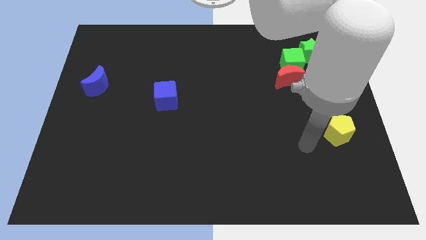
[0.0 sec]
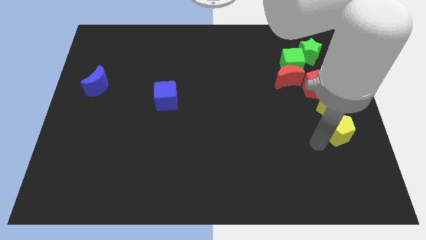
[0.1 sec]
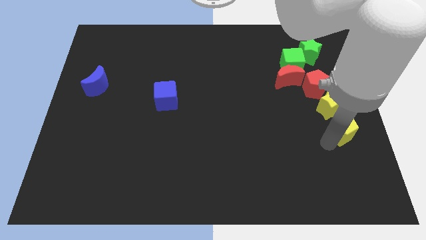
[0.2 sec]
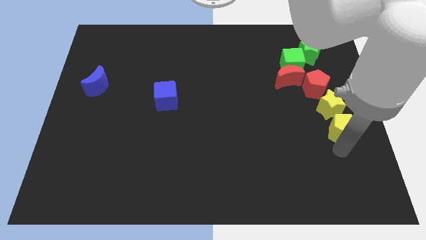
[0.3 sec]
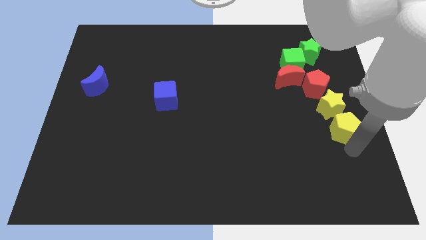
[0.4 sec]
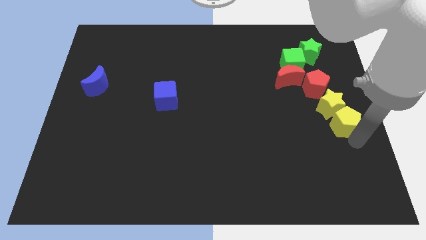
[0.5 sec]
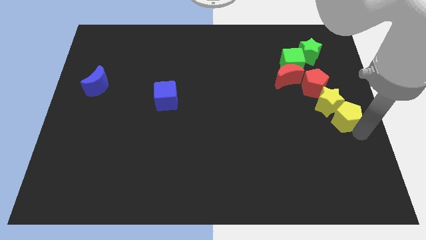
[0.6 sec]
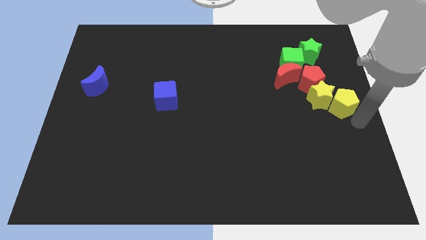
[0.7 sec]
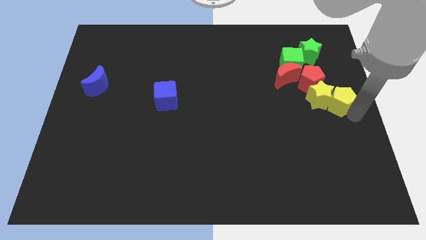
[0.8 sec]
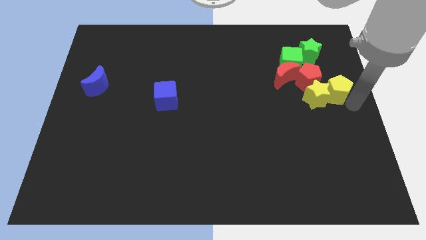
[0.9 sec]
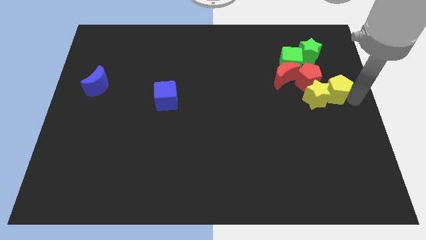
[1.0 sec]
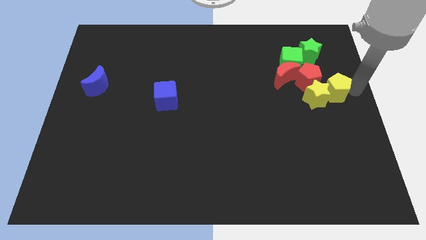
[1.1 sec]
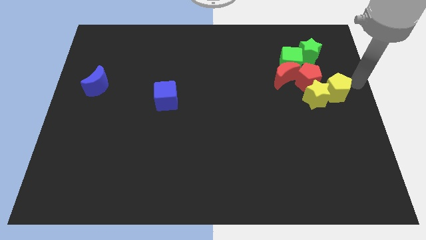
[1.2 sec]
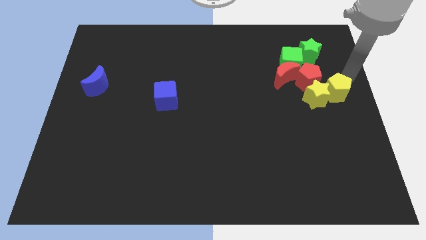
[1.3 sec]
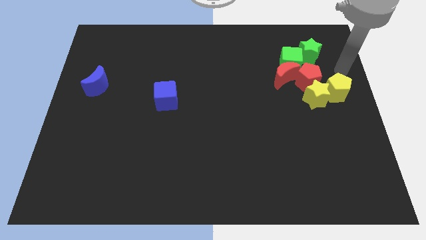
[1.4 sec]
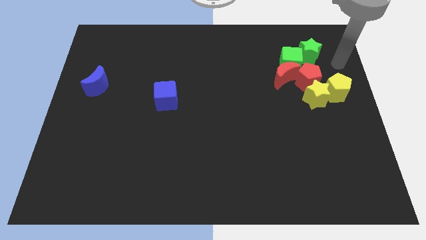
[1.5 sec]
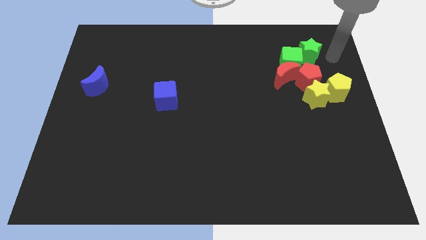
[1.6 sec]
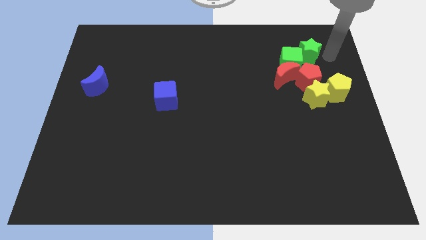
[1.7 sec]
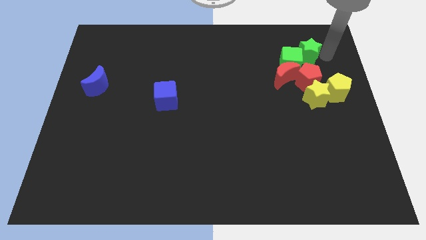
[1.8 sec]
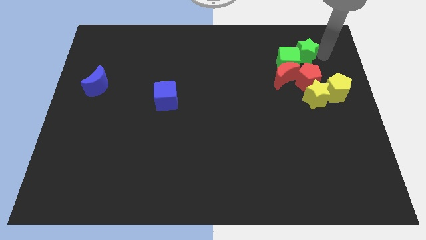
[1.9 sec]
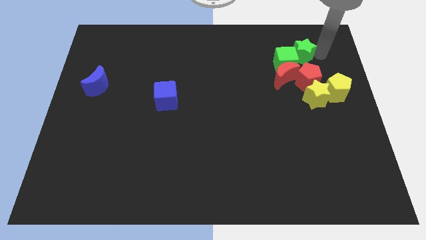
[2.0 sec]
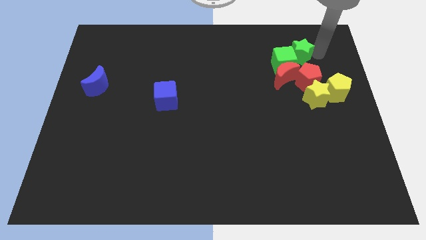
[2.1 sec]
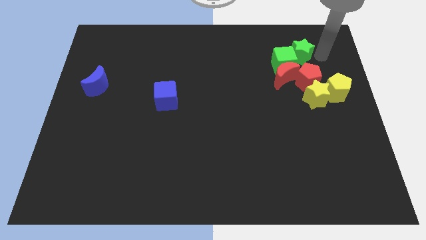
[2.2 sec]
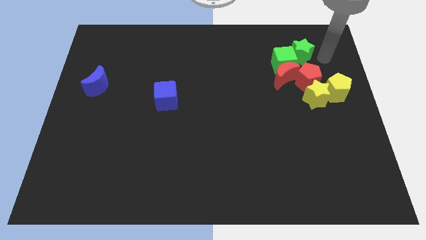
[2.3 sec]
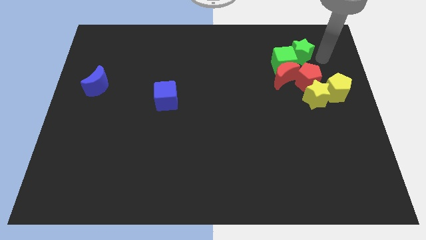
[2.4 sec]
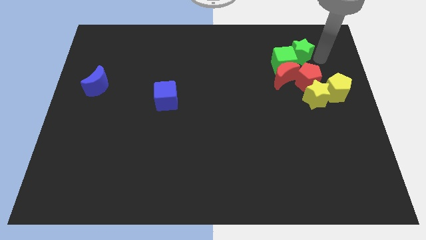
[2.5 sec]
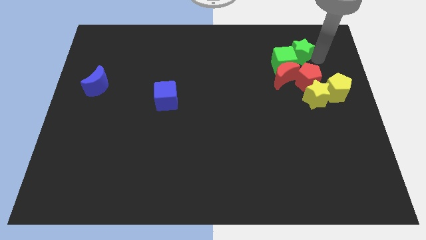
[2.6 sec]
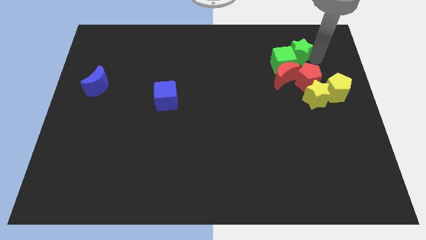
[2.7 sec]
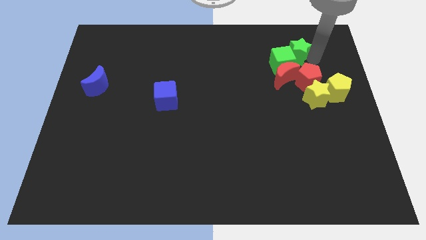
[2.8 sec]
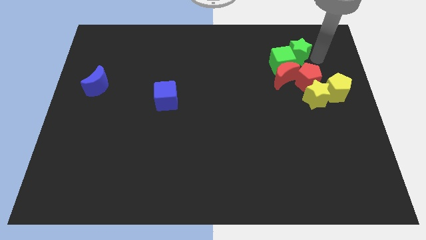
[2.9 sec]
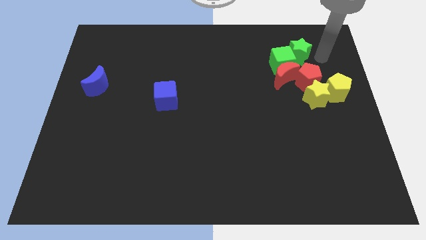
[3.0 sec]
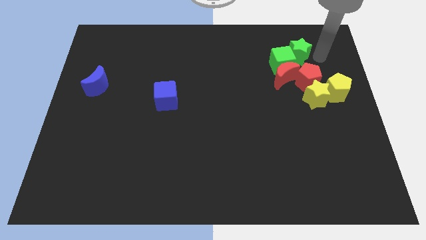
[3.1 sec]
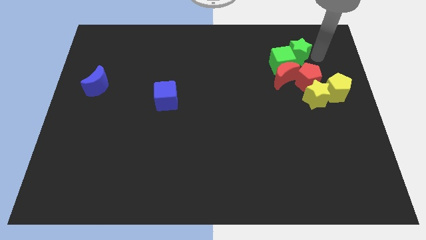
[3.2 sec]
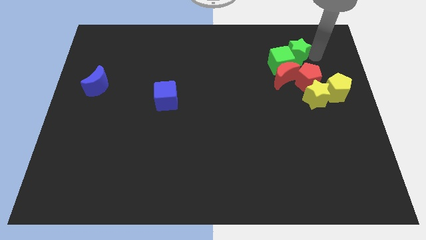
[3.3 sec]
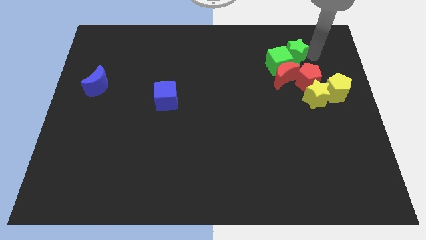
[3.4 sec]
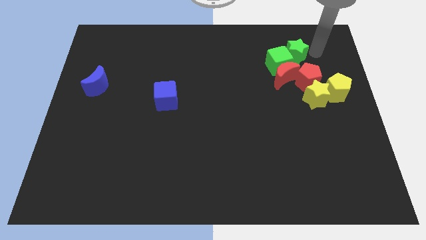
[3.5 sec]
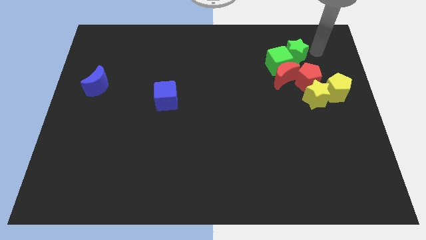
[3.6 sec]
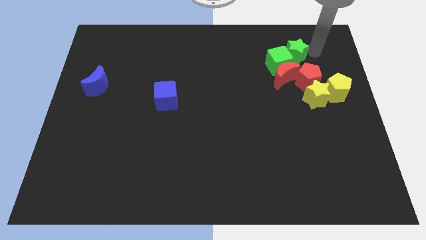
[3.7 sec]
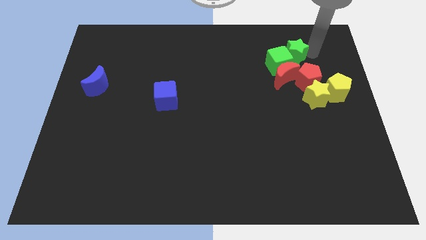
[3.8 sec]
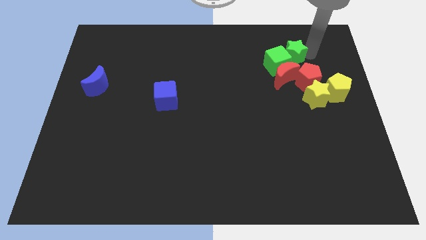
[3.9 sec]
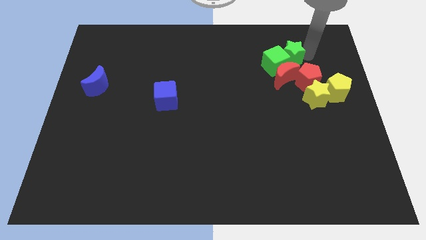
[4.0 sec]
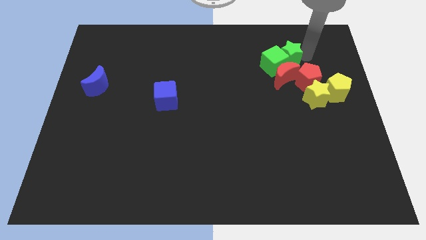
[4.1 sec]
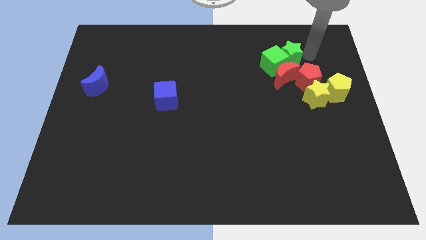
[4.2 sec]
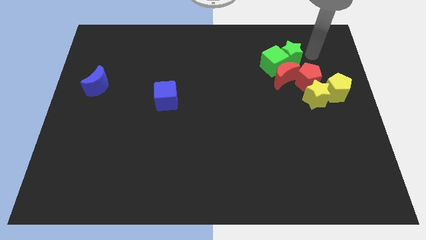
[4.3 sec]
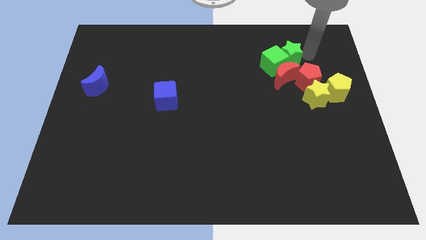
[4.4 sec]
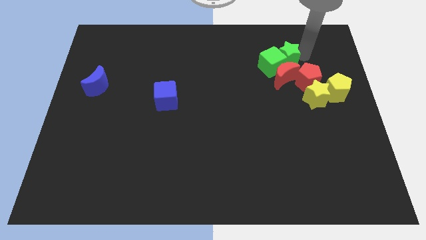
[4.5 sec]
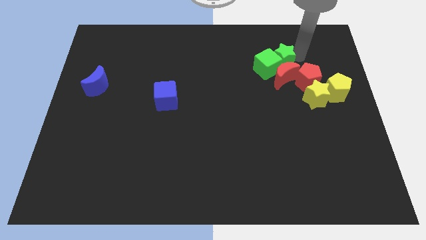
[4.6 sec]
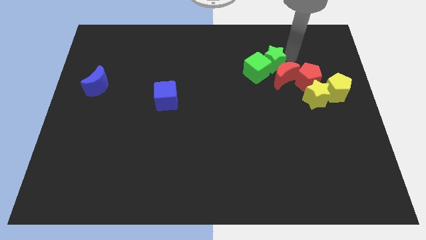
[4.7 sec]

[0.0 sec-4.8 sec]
push the green star a little bit diagonally down and left

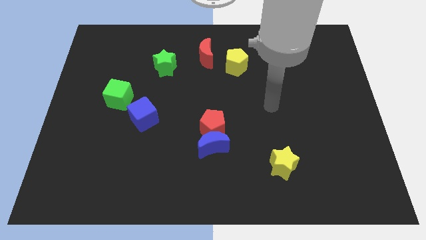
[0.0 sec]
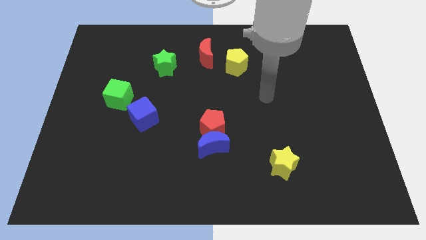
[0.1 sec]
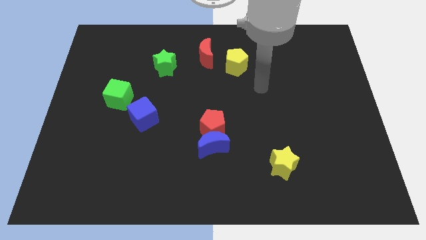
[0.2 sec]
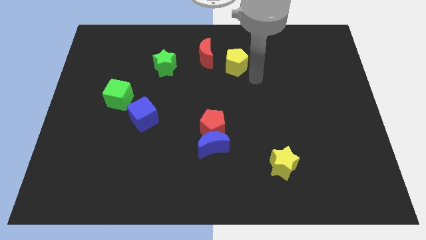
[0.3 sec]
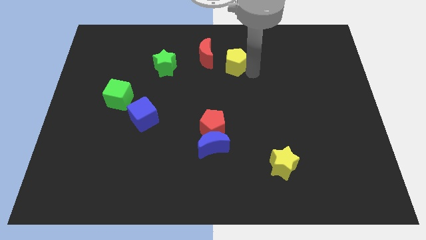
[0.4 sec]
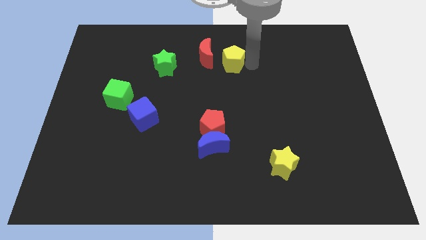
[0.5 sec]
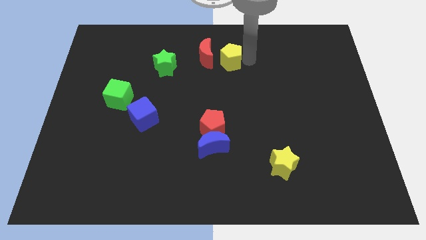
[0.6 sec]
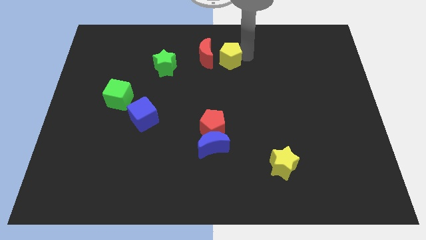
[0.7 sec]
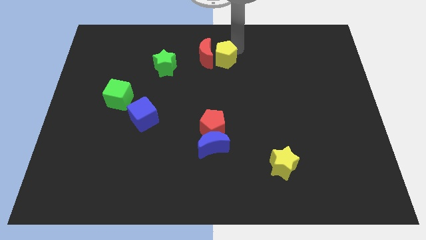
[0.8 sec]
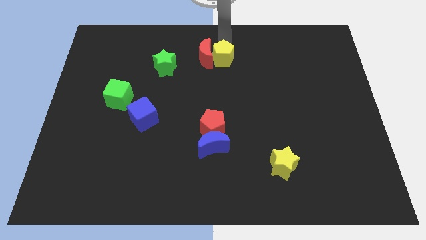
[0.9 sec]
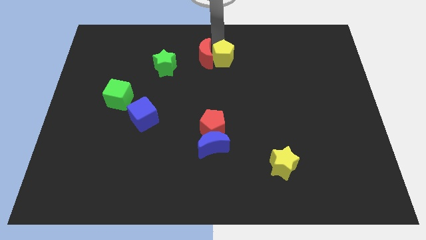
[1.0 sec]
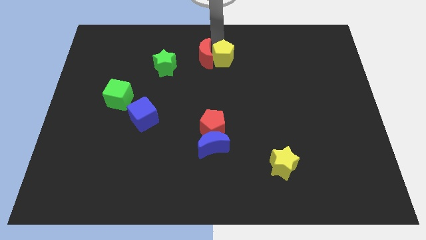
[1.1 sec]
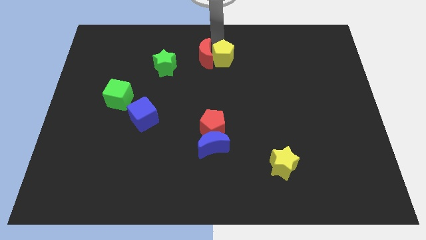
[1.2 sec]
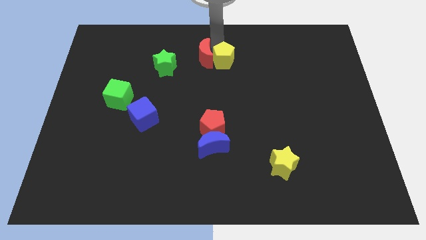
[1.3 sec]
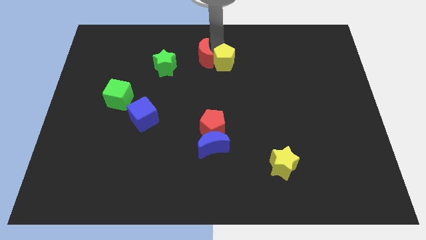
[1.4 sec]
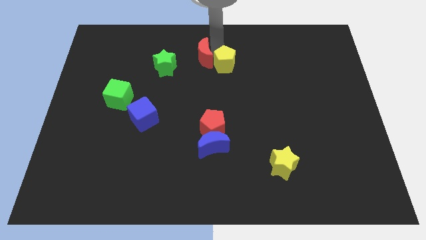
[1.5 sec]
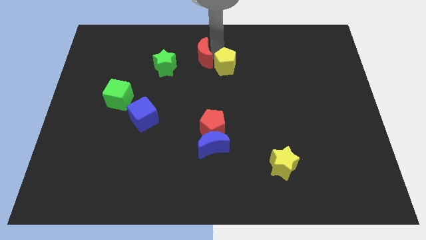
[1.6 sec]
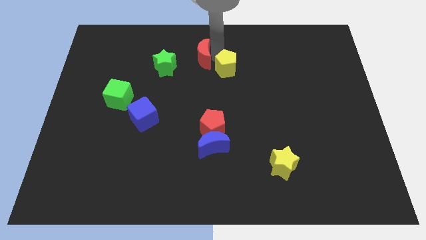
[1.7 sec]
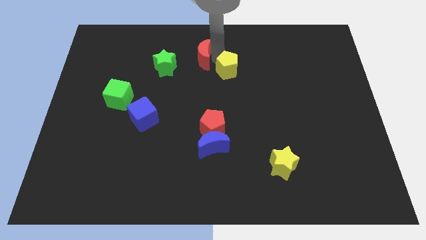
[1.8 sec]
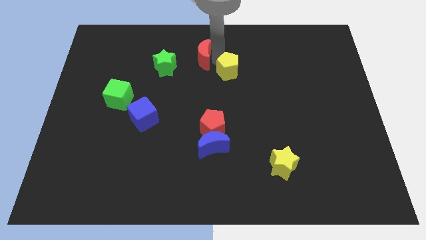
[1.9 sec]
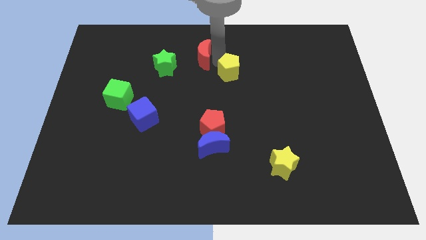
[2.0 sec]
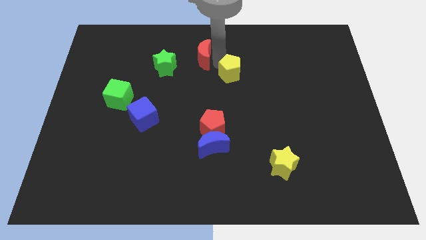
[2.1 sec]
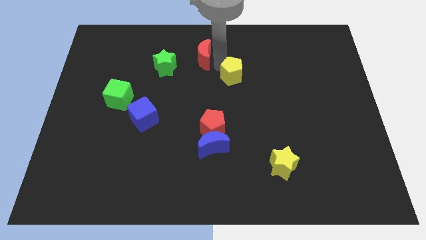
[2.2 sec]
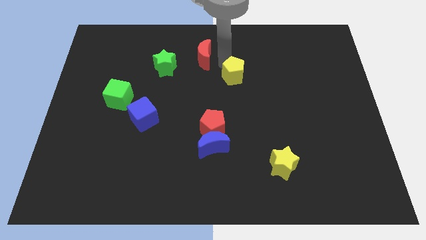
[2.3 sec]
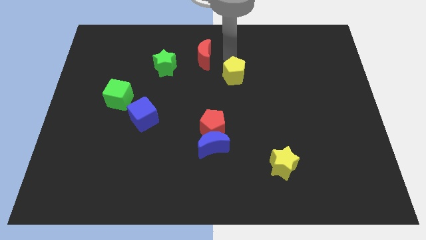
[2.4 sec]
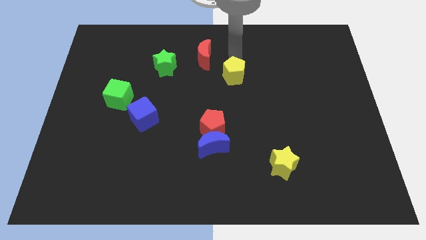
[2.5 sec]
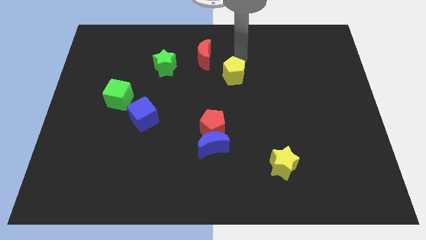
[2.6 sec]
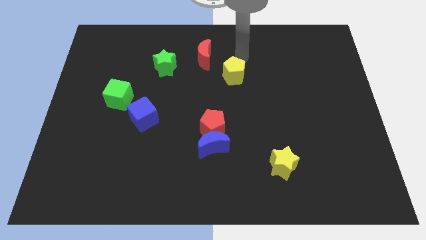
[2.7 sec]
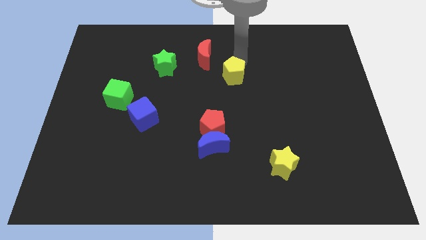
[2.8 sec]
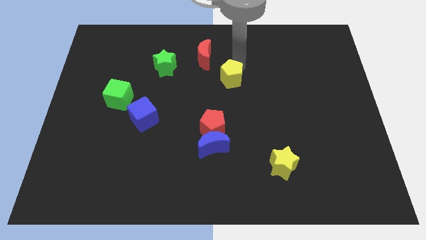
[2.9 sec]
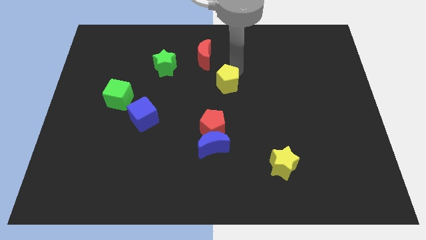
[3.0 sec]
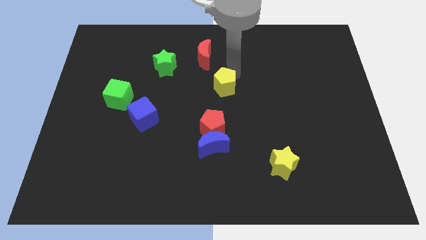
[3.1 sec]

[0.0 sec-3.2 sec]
slightly slide the yellow pentagon down
